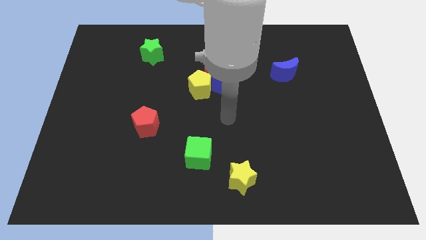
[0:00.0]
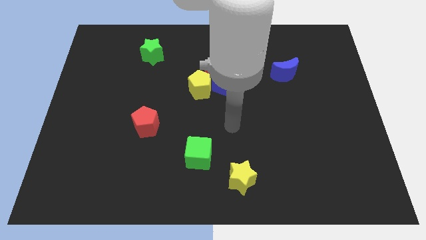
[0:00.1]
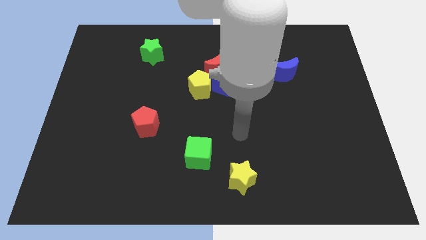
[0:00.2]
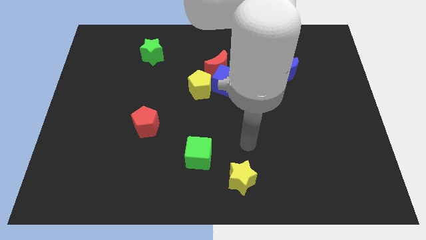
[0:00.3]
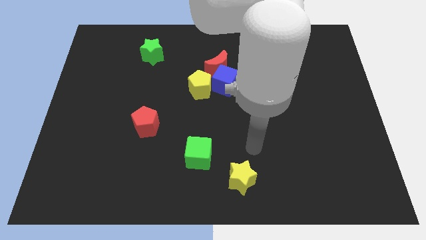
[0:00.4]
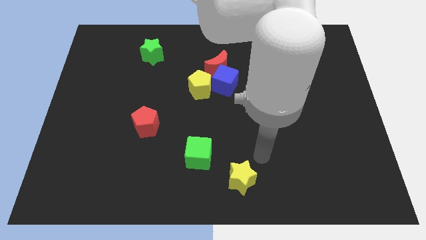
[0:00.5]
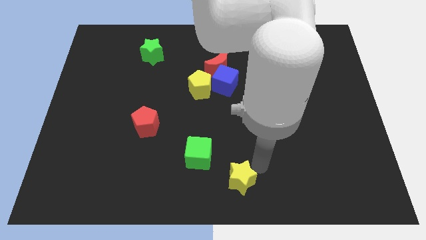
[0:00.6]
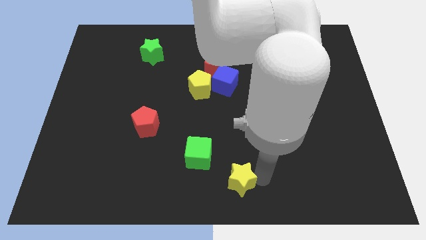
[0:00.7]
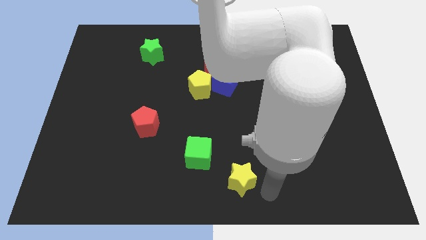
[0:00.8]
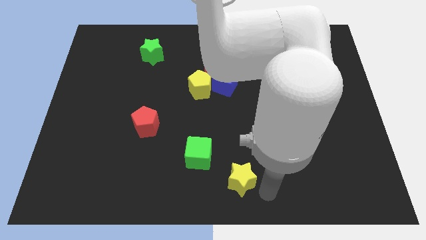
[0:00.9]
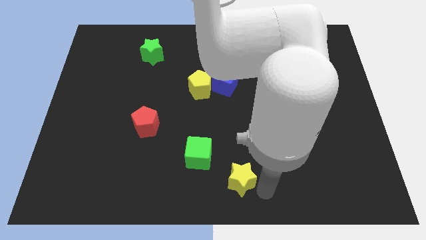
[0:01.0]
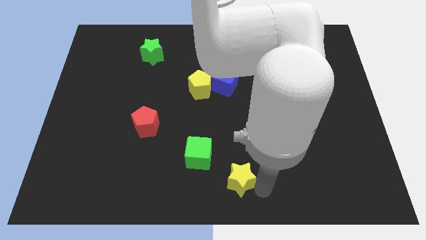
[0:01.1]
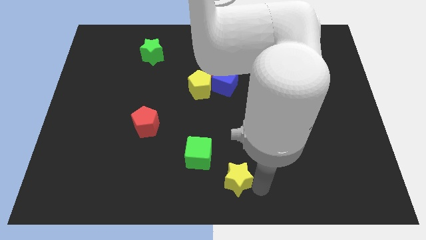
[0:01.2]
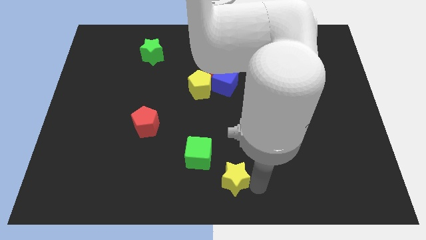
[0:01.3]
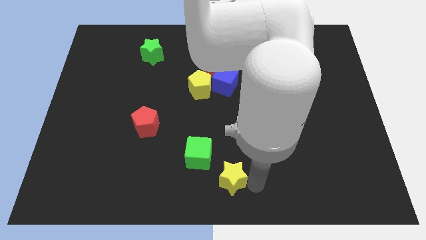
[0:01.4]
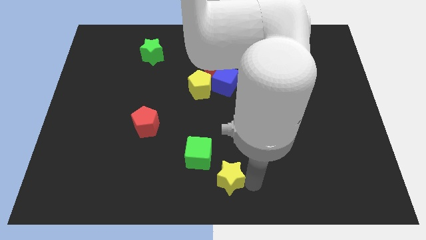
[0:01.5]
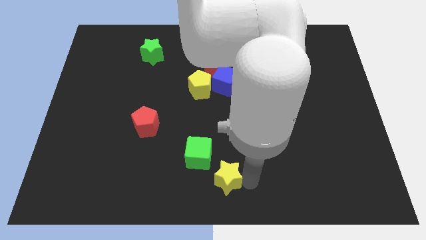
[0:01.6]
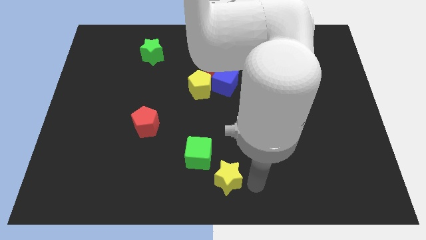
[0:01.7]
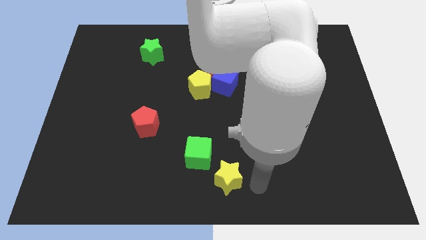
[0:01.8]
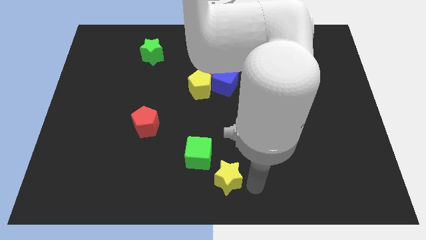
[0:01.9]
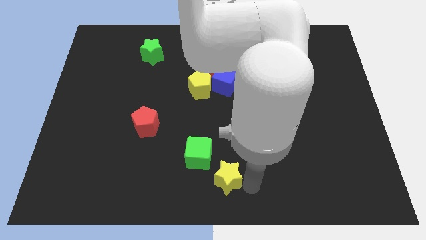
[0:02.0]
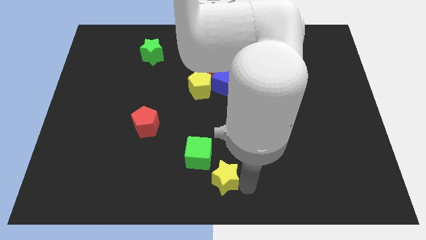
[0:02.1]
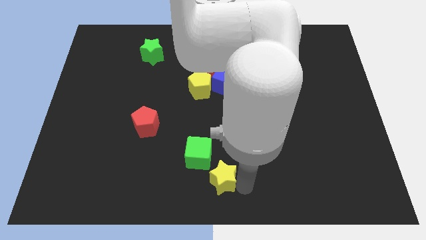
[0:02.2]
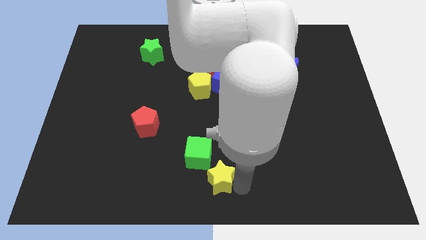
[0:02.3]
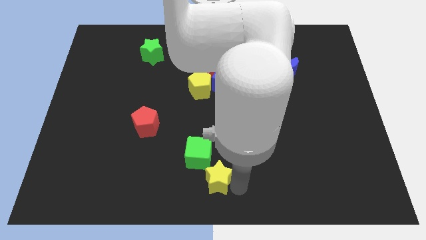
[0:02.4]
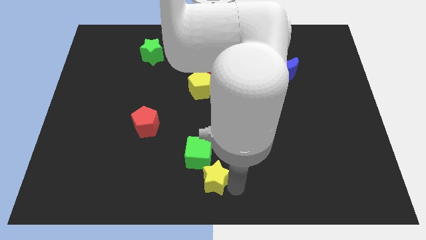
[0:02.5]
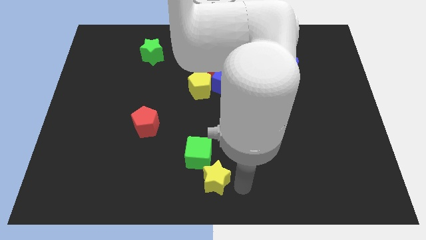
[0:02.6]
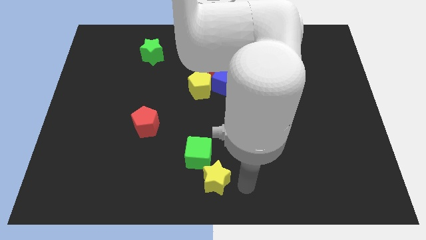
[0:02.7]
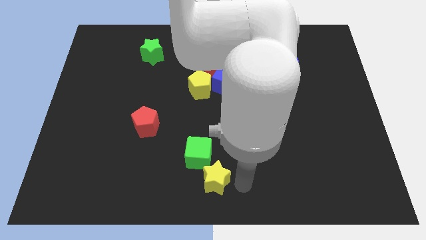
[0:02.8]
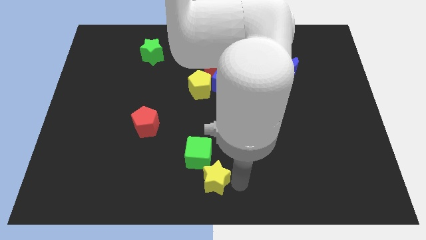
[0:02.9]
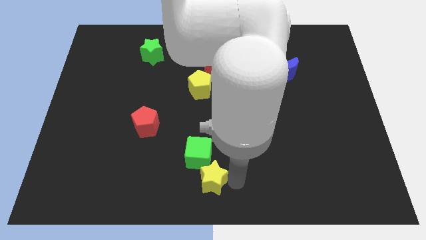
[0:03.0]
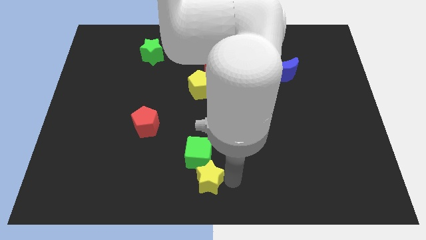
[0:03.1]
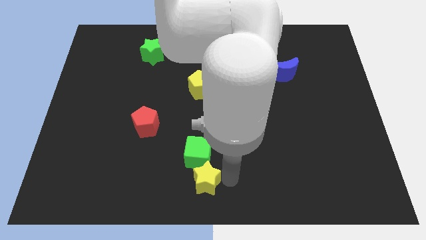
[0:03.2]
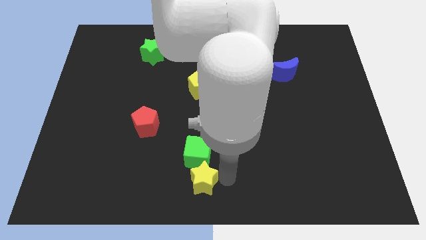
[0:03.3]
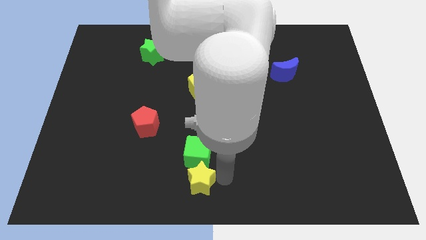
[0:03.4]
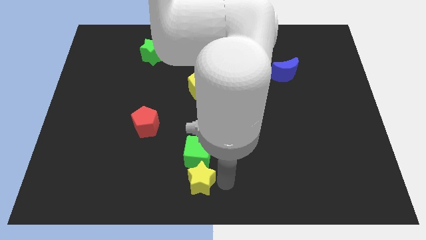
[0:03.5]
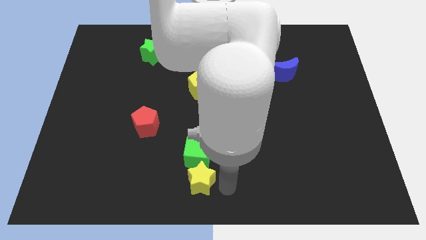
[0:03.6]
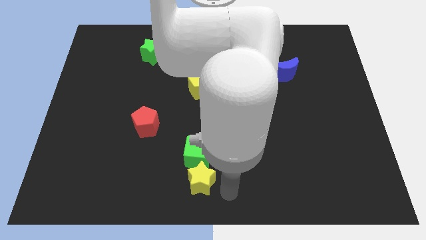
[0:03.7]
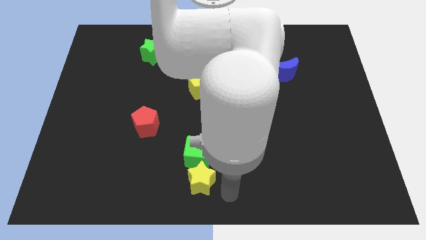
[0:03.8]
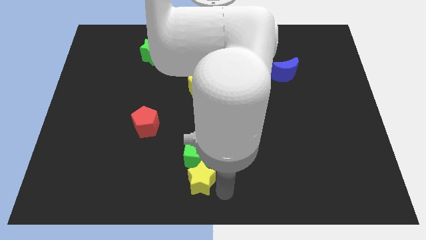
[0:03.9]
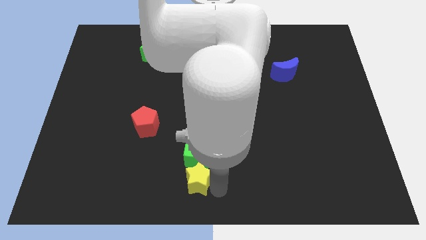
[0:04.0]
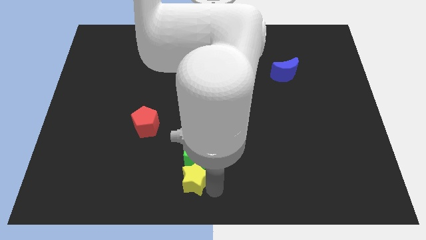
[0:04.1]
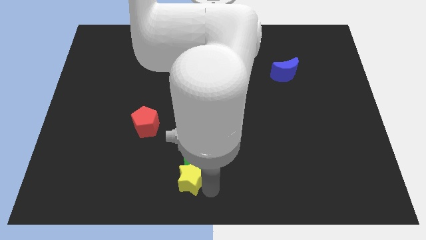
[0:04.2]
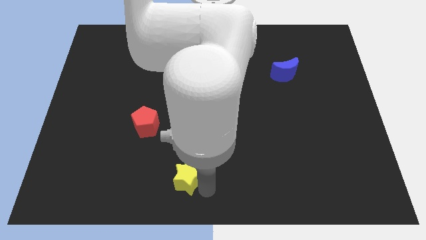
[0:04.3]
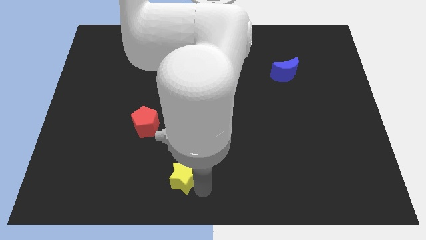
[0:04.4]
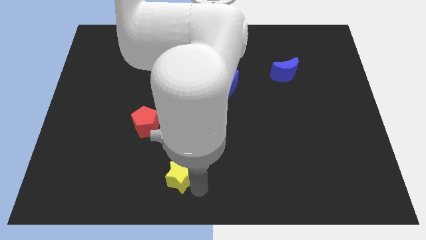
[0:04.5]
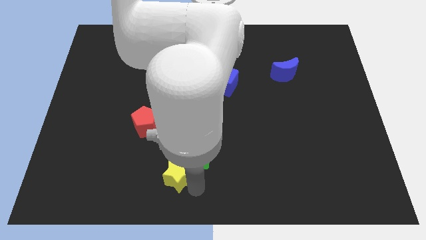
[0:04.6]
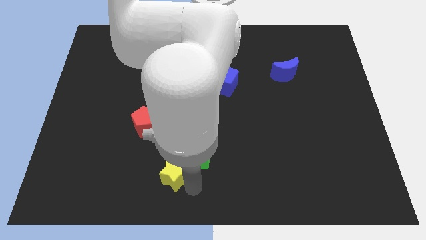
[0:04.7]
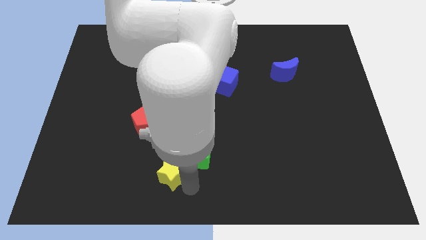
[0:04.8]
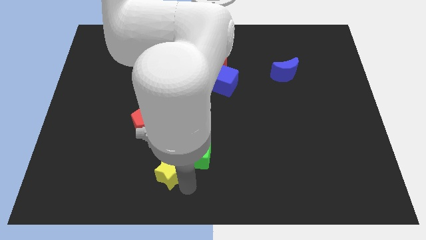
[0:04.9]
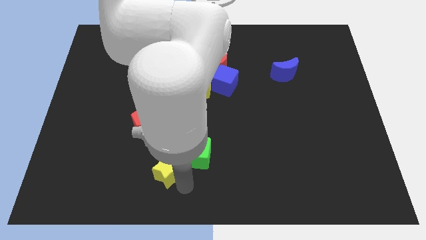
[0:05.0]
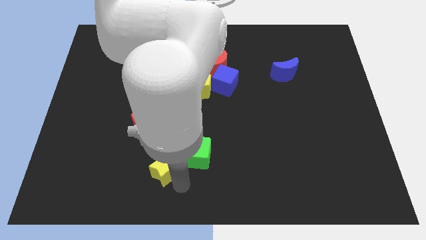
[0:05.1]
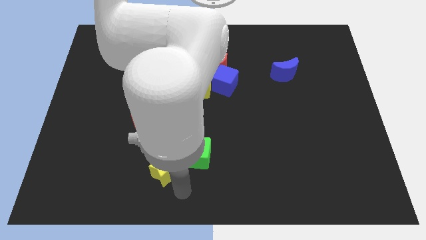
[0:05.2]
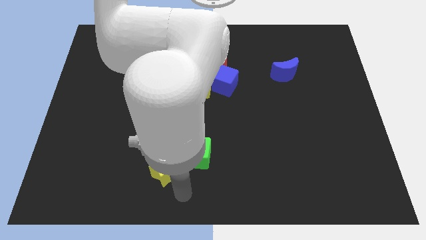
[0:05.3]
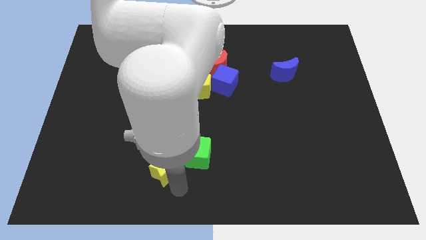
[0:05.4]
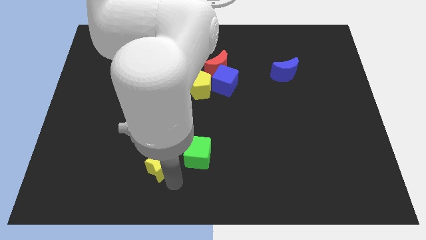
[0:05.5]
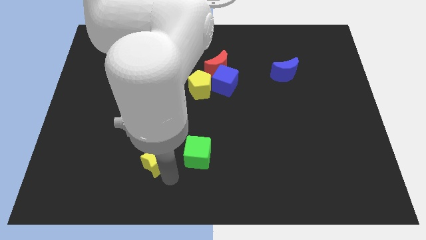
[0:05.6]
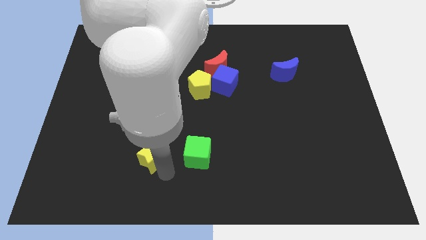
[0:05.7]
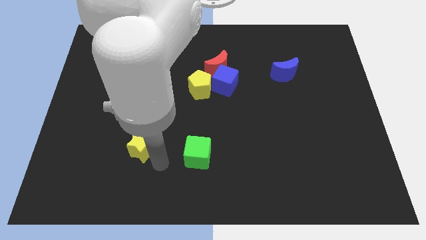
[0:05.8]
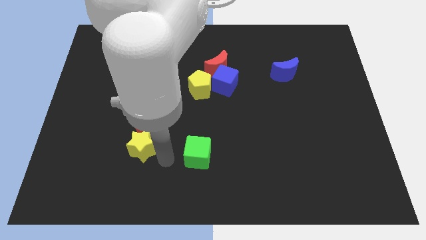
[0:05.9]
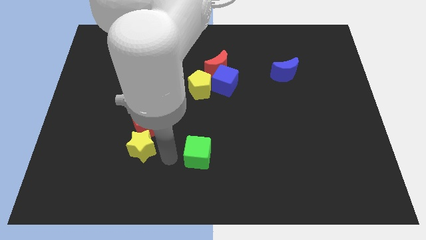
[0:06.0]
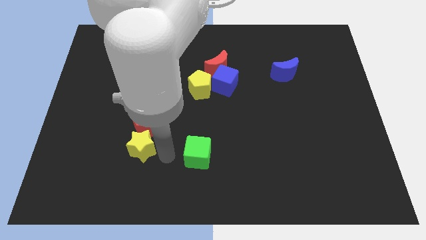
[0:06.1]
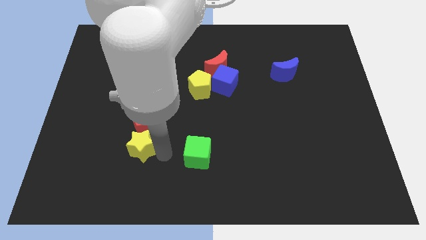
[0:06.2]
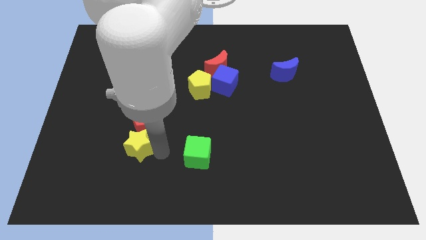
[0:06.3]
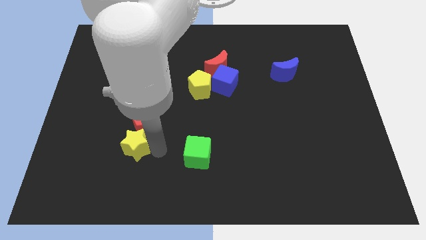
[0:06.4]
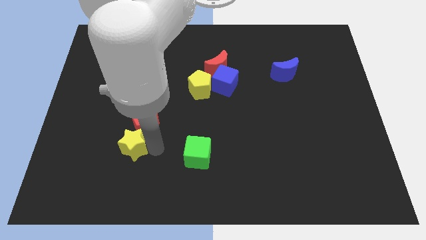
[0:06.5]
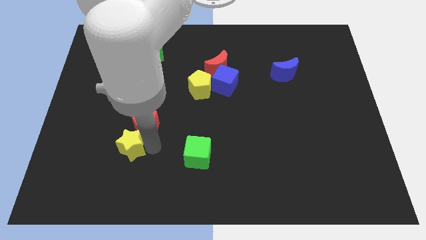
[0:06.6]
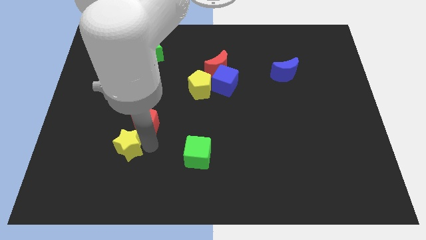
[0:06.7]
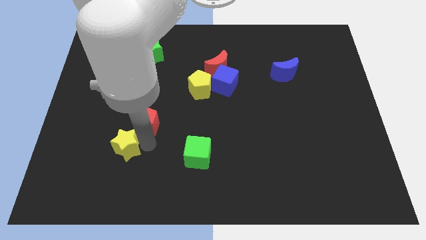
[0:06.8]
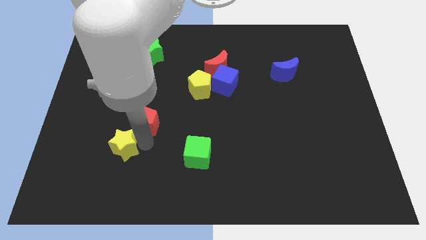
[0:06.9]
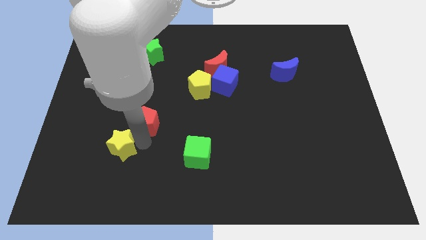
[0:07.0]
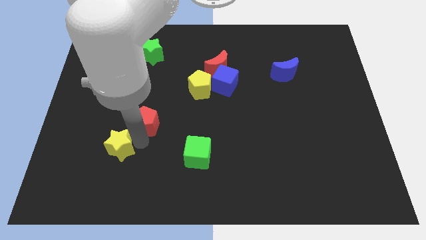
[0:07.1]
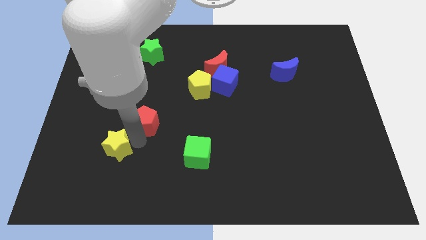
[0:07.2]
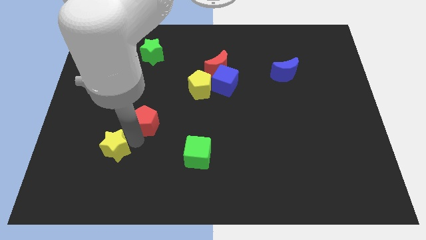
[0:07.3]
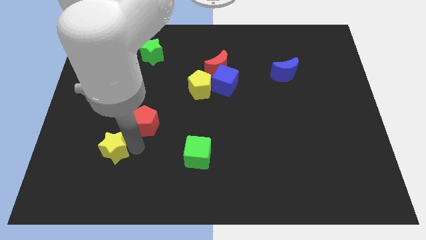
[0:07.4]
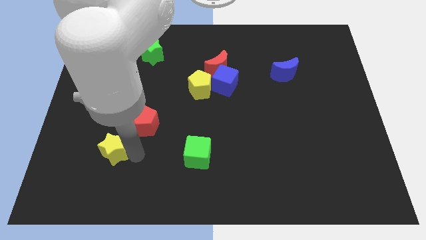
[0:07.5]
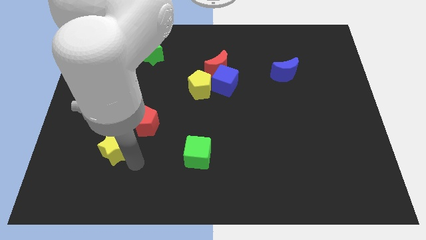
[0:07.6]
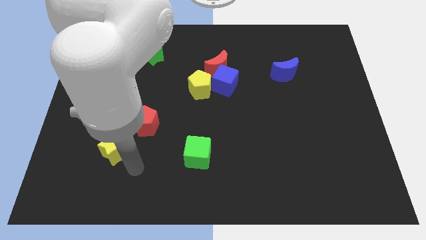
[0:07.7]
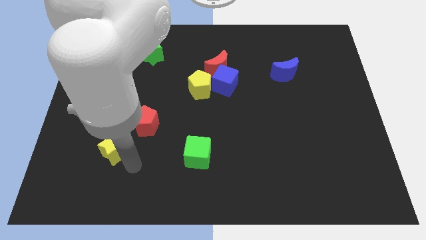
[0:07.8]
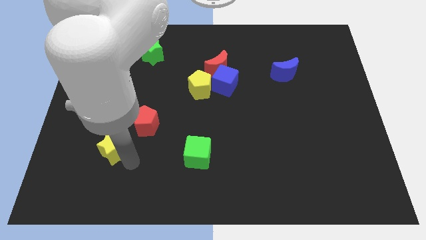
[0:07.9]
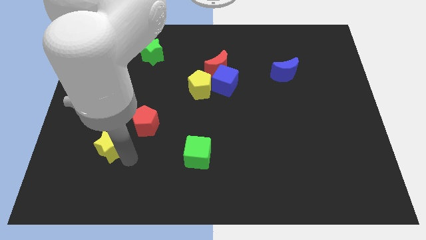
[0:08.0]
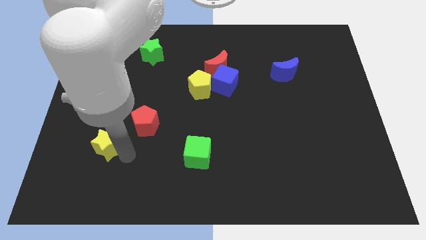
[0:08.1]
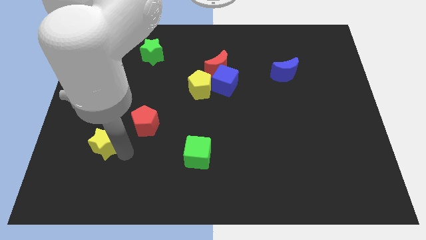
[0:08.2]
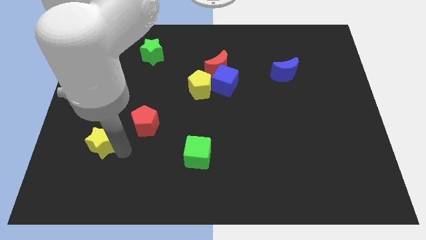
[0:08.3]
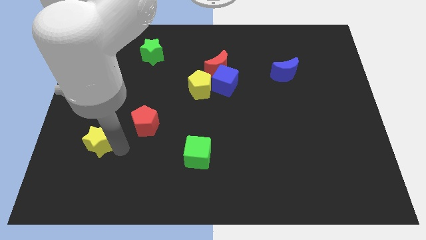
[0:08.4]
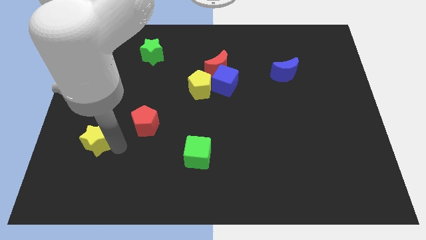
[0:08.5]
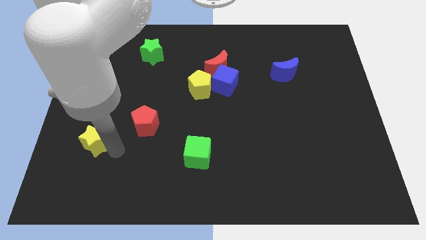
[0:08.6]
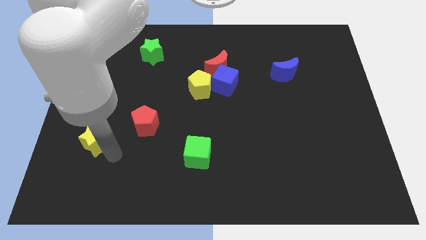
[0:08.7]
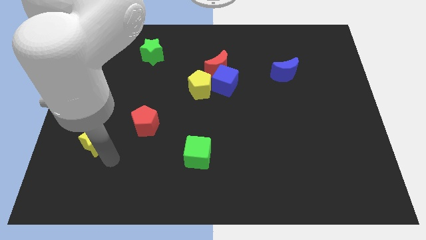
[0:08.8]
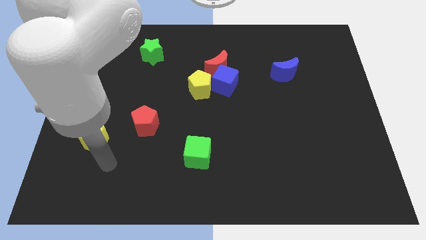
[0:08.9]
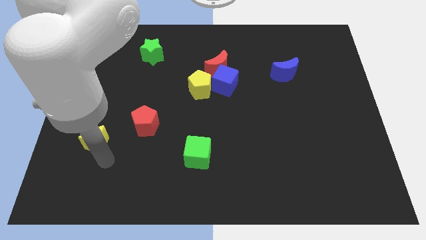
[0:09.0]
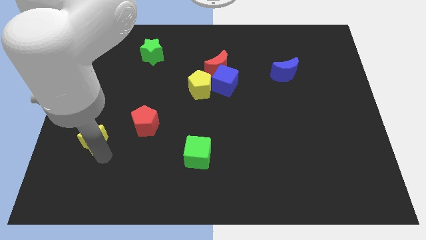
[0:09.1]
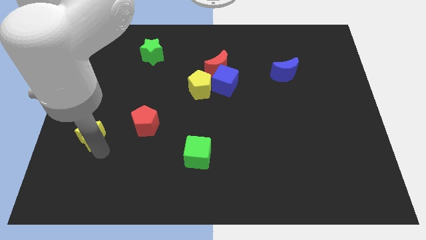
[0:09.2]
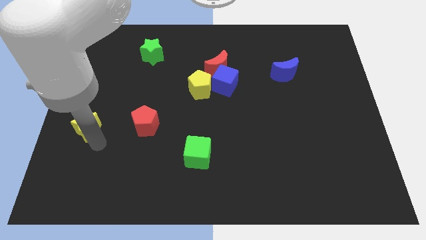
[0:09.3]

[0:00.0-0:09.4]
slide the yellow star to the center left
